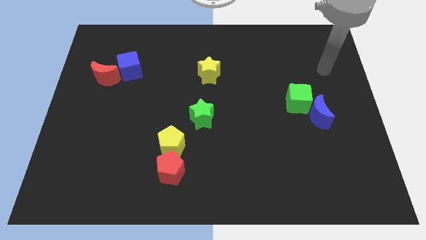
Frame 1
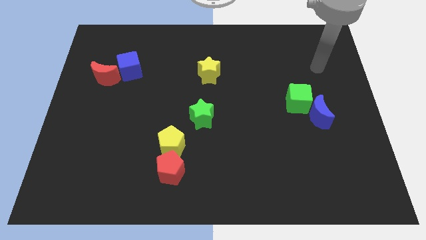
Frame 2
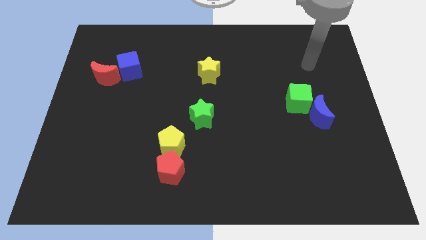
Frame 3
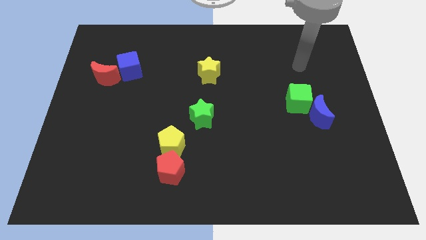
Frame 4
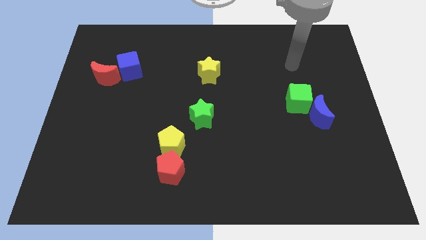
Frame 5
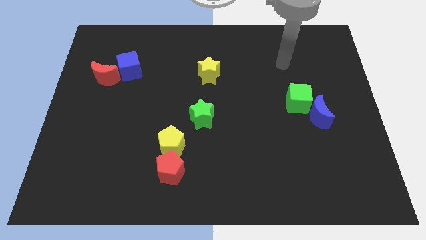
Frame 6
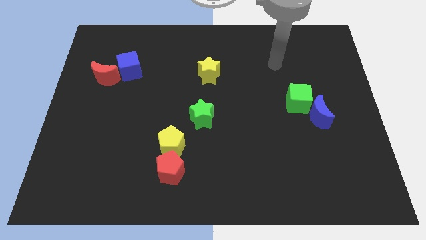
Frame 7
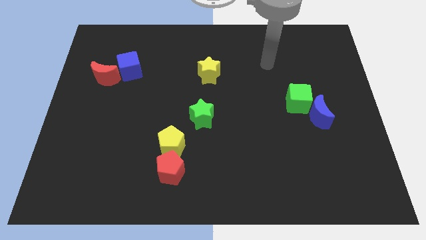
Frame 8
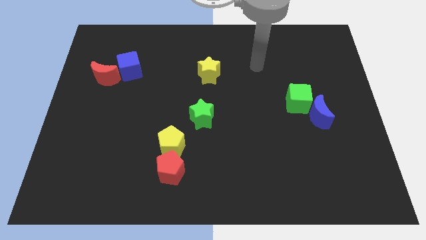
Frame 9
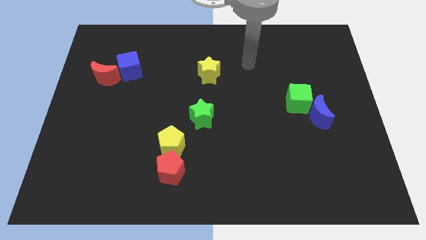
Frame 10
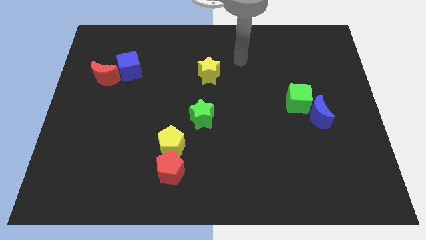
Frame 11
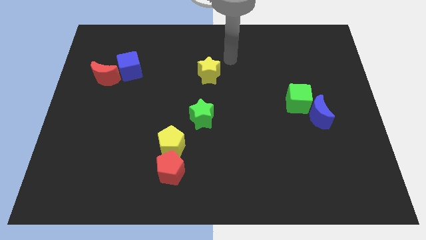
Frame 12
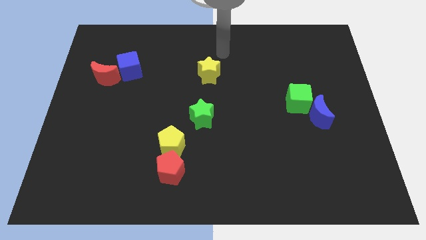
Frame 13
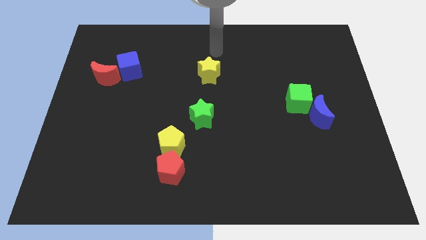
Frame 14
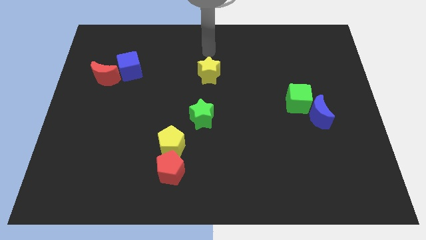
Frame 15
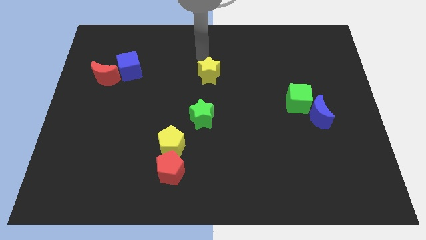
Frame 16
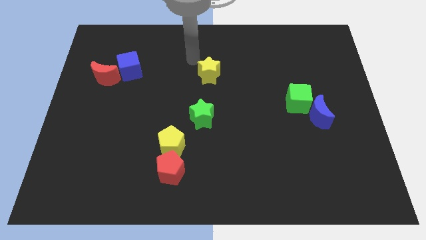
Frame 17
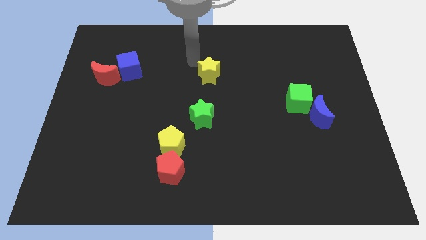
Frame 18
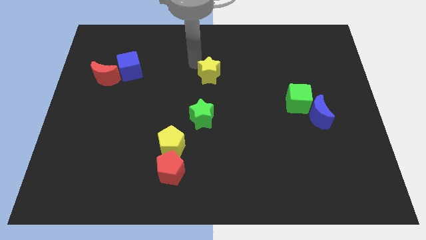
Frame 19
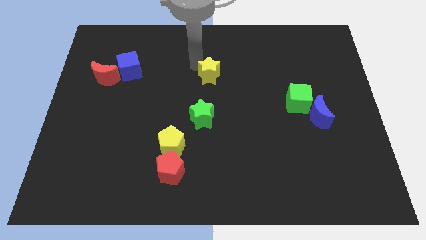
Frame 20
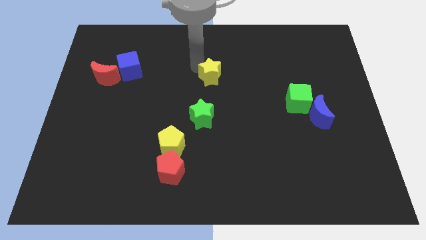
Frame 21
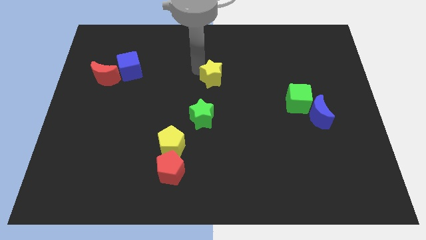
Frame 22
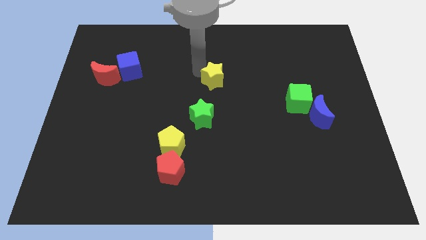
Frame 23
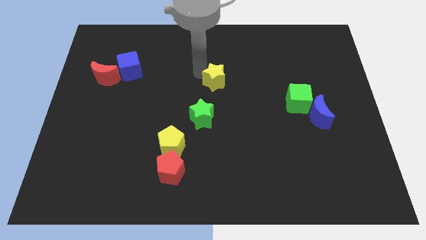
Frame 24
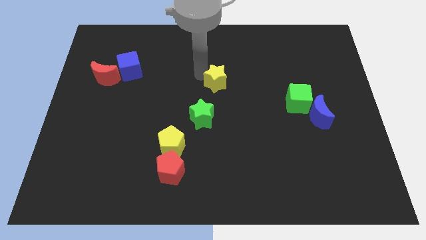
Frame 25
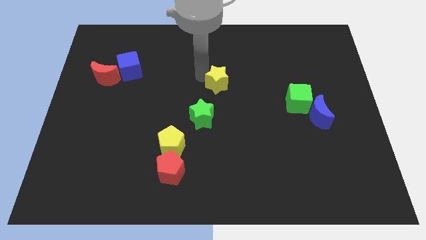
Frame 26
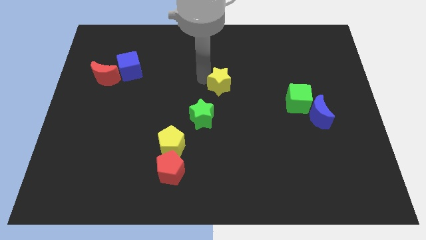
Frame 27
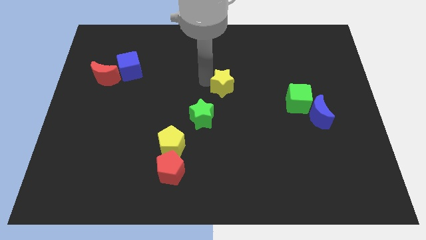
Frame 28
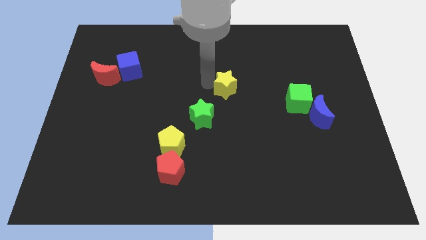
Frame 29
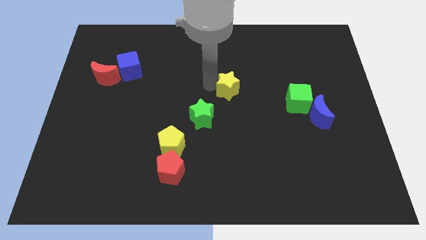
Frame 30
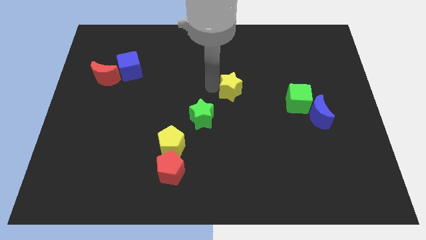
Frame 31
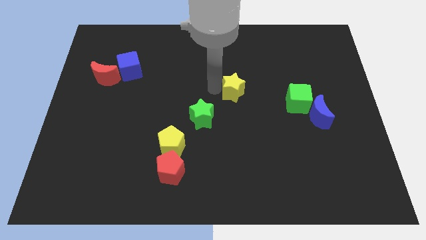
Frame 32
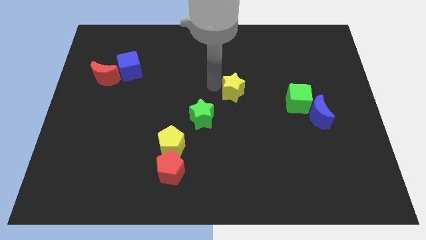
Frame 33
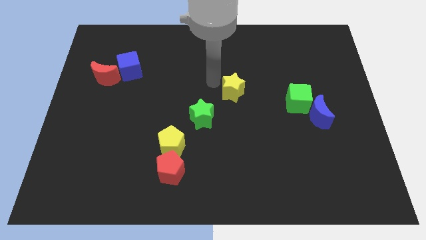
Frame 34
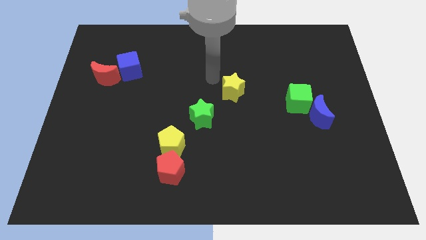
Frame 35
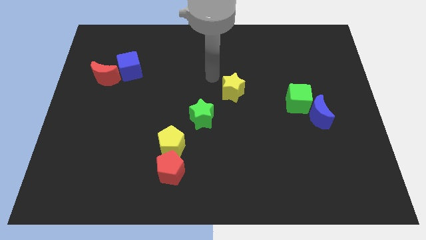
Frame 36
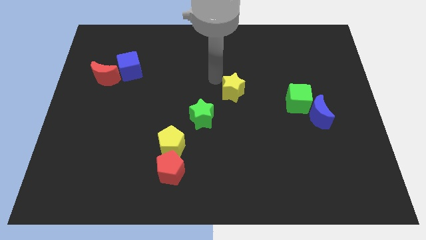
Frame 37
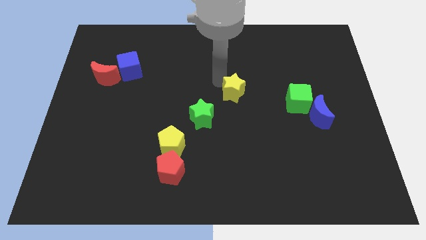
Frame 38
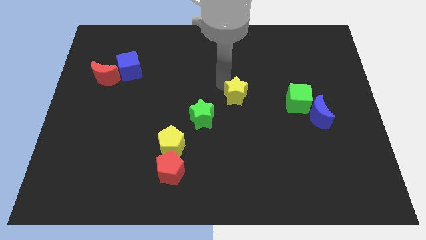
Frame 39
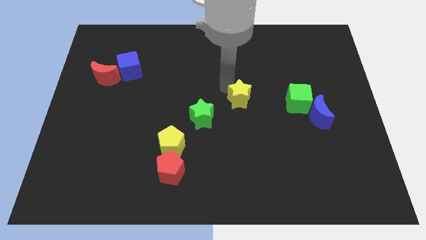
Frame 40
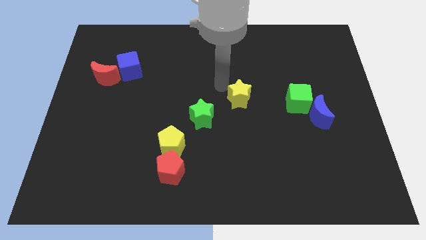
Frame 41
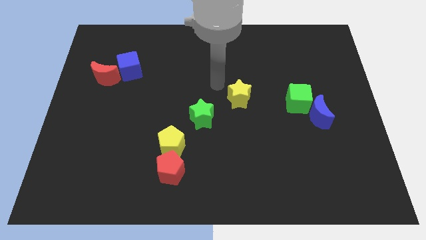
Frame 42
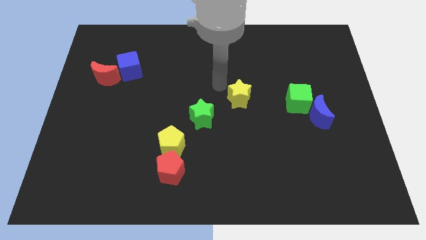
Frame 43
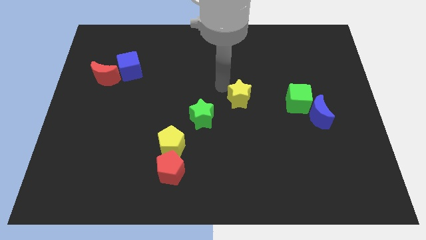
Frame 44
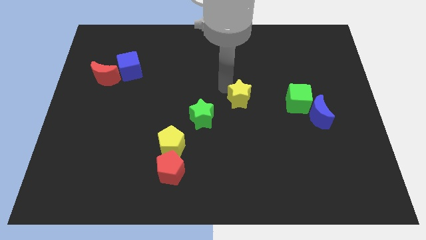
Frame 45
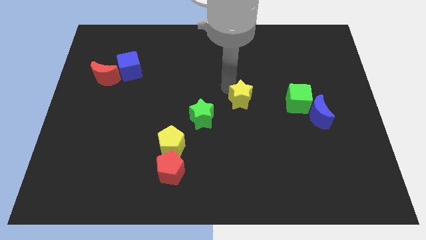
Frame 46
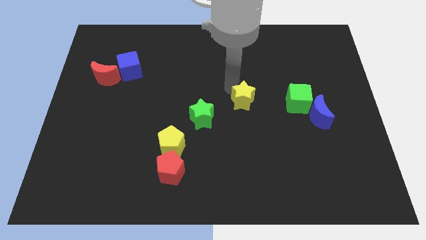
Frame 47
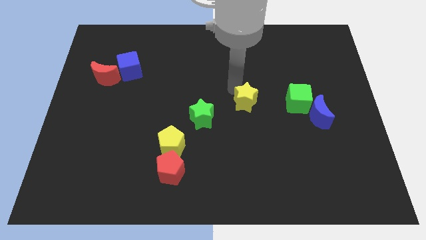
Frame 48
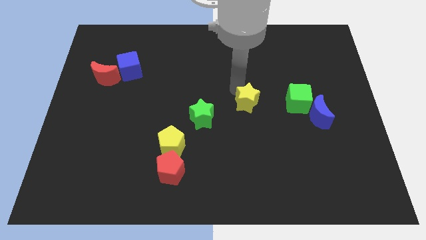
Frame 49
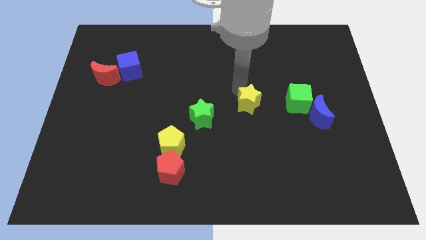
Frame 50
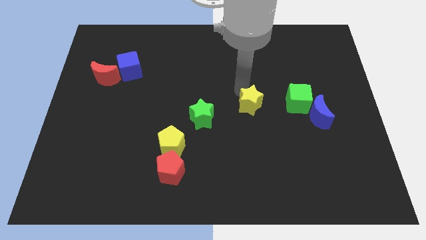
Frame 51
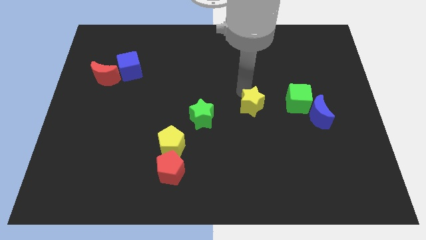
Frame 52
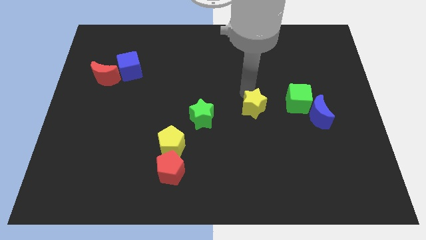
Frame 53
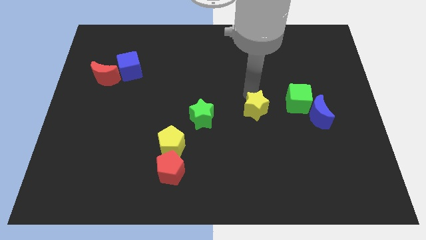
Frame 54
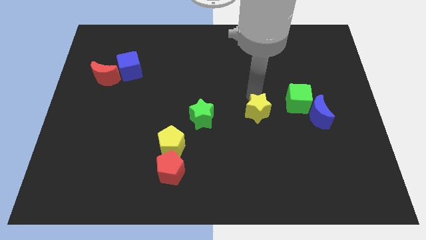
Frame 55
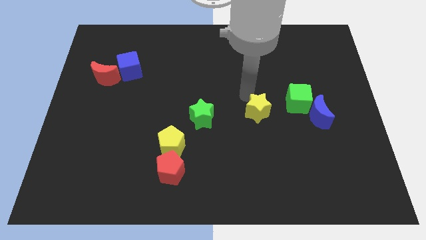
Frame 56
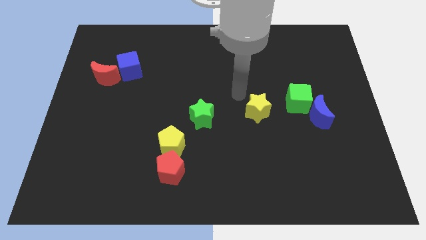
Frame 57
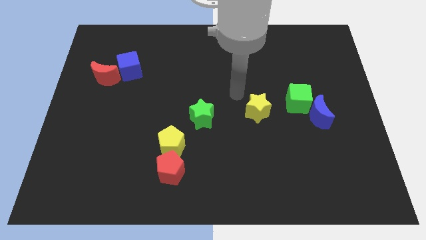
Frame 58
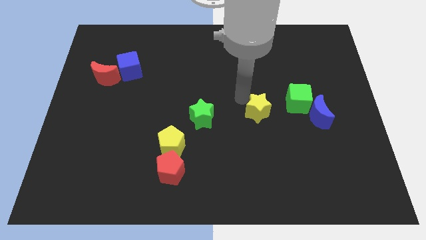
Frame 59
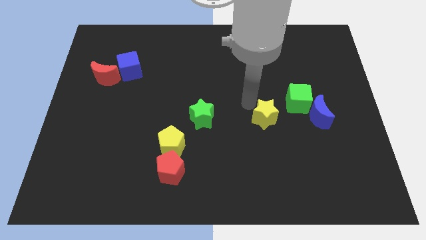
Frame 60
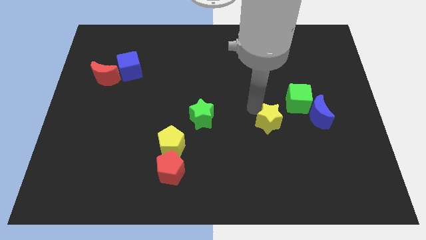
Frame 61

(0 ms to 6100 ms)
move the yellow star downwards and right

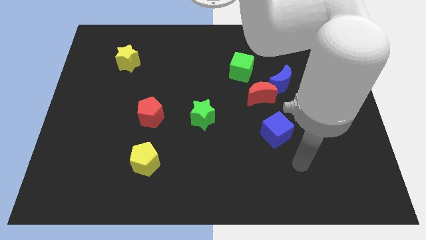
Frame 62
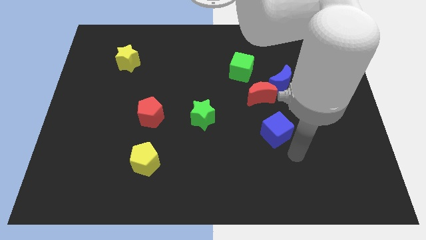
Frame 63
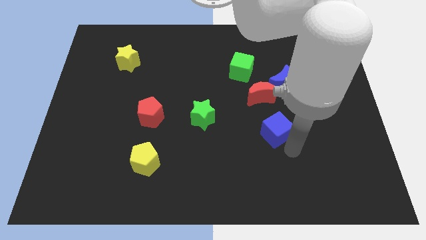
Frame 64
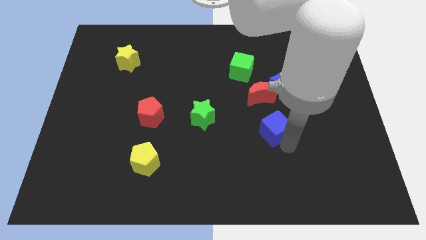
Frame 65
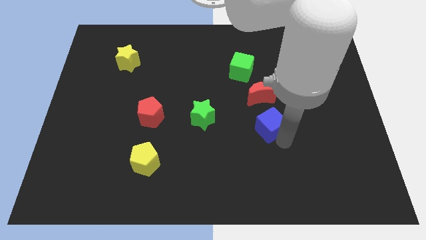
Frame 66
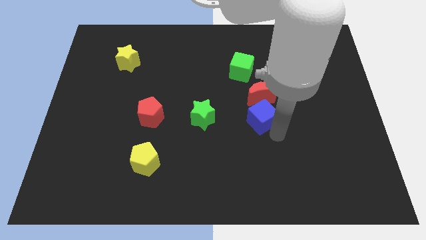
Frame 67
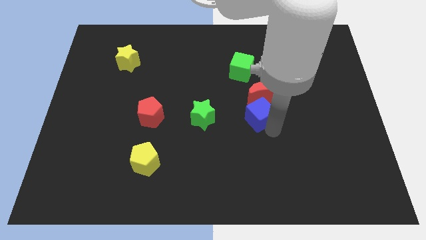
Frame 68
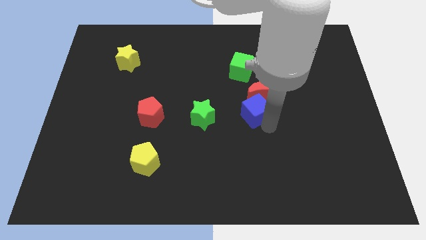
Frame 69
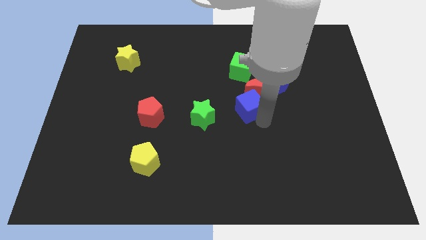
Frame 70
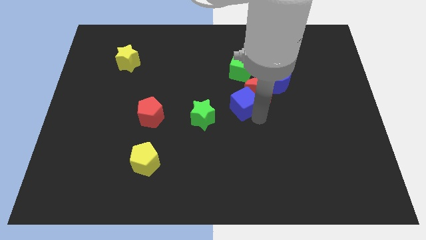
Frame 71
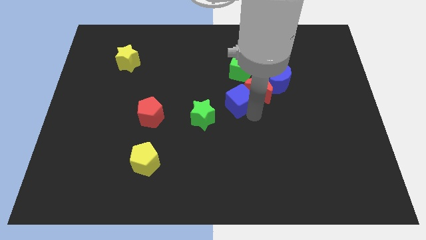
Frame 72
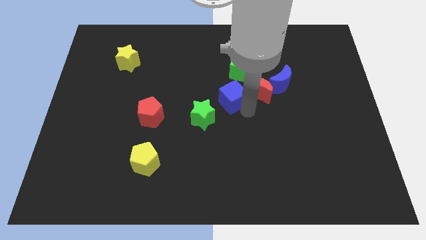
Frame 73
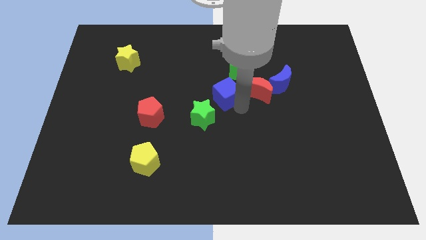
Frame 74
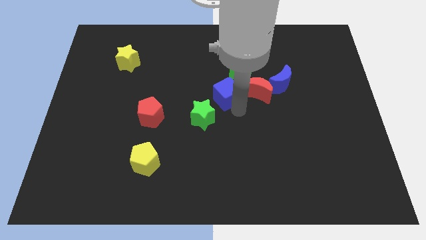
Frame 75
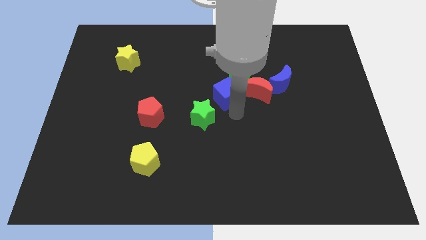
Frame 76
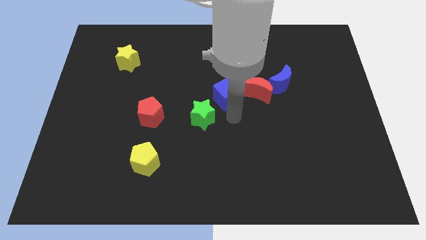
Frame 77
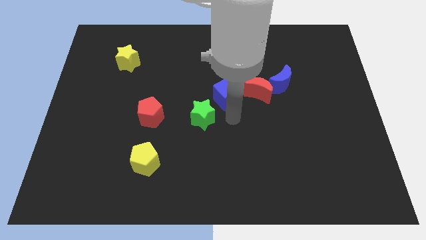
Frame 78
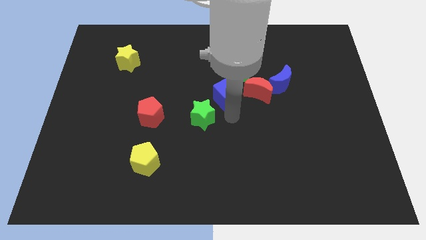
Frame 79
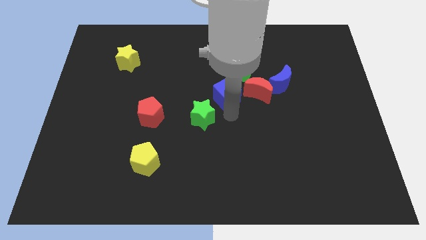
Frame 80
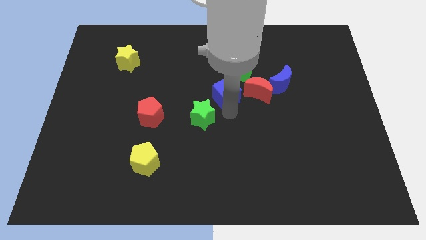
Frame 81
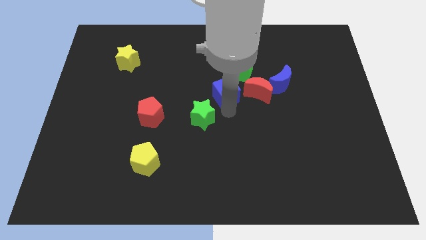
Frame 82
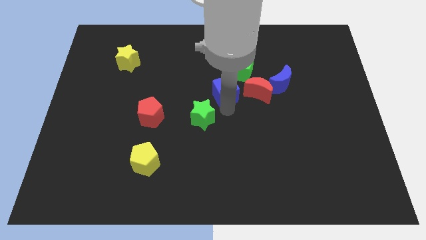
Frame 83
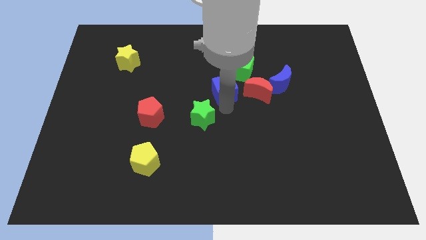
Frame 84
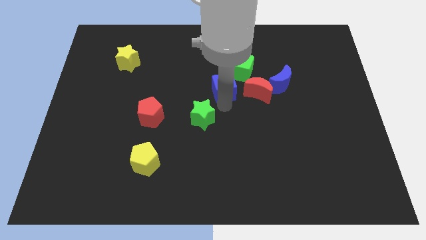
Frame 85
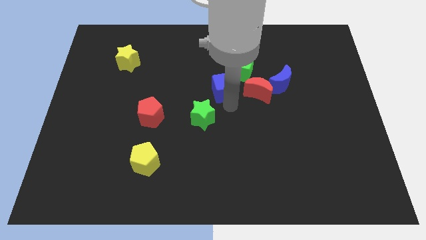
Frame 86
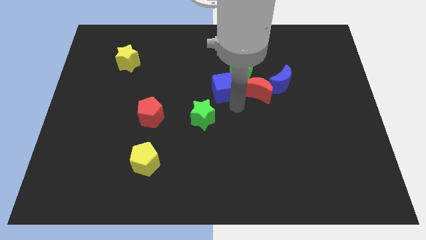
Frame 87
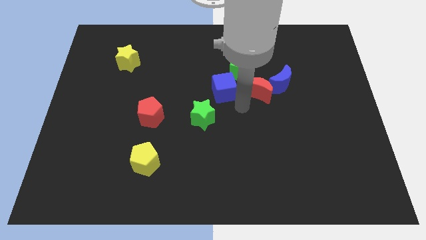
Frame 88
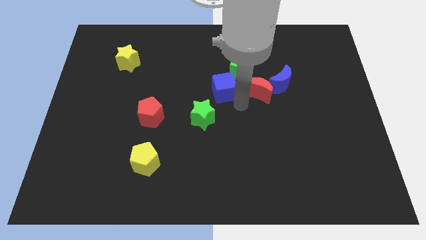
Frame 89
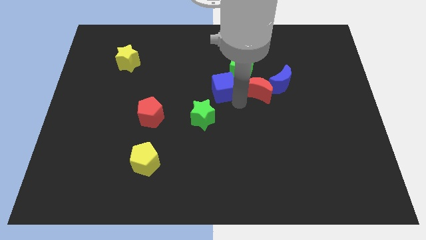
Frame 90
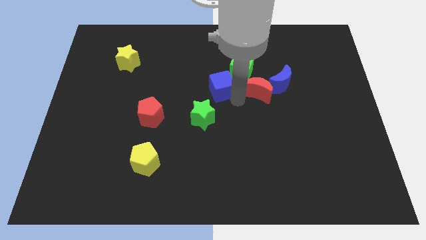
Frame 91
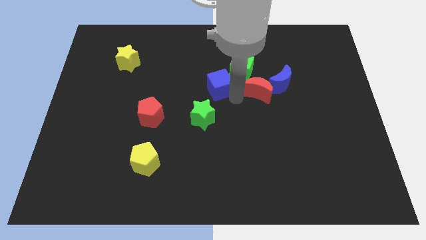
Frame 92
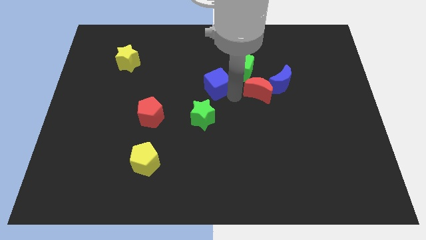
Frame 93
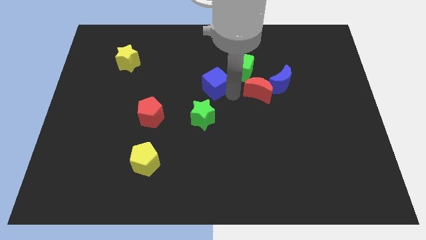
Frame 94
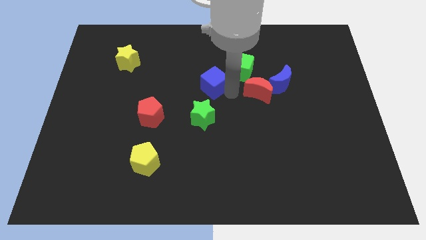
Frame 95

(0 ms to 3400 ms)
move the blue cube diagonally upwards and to the left
